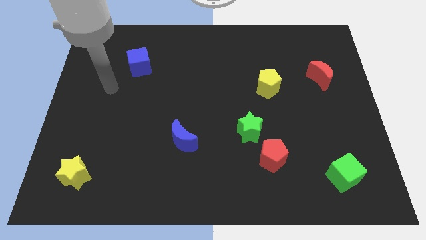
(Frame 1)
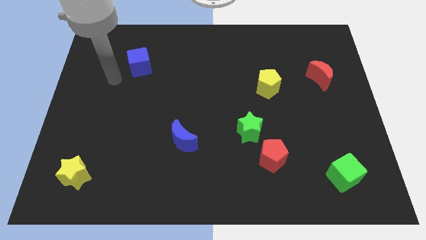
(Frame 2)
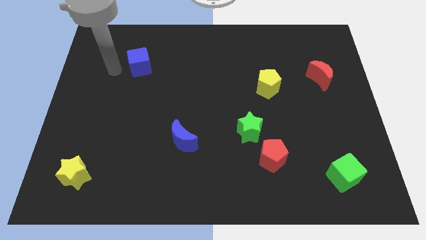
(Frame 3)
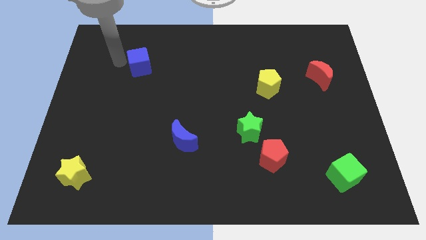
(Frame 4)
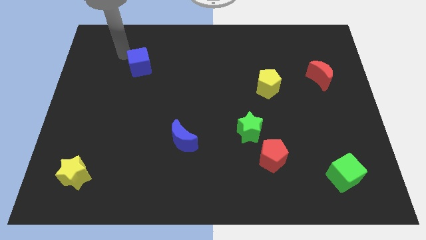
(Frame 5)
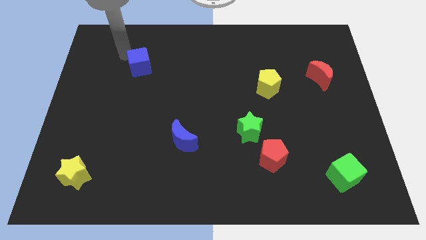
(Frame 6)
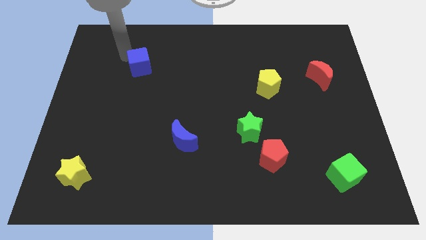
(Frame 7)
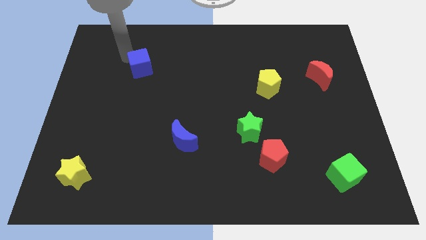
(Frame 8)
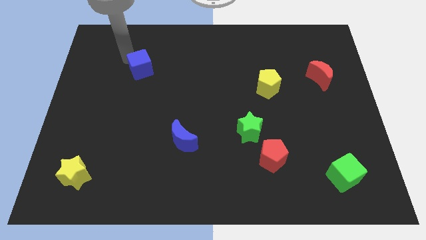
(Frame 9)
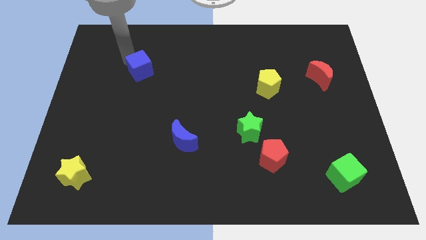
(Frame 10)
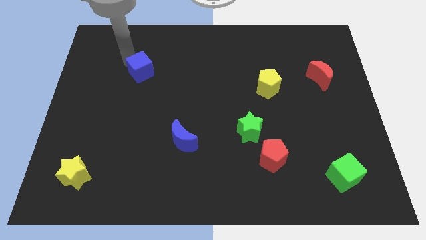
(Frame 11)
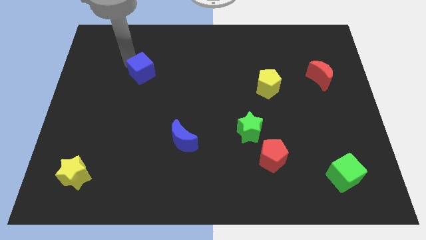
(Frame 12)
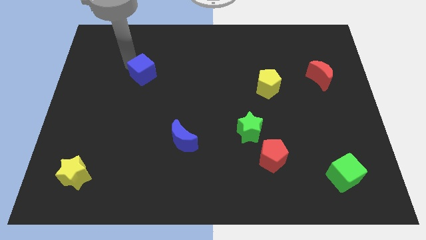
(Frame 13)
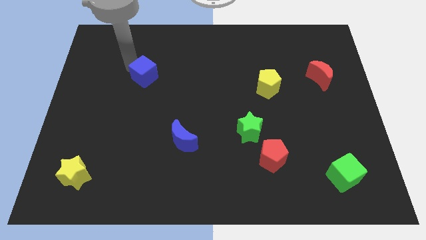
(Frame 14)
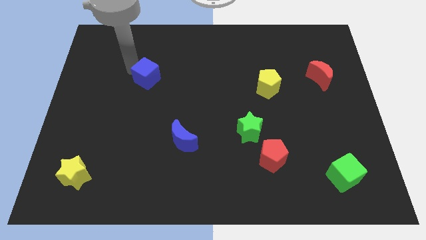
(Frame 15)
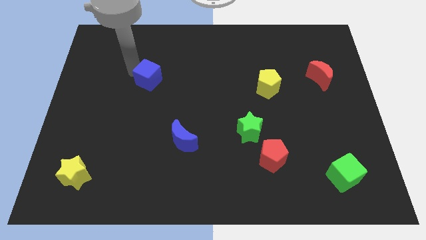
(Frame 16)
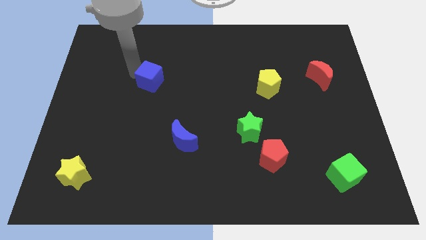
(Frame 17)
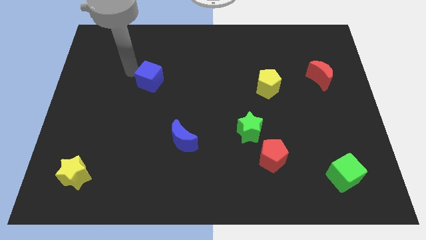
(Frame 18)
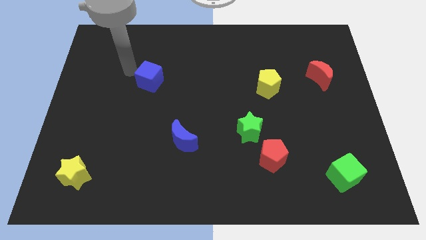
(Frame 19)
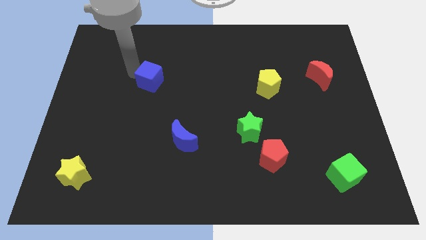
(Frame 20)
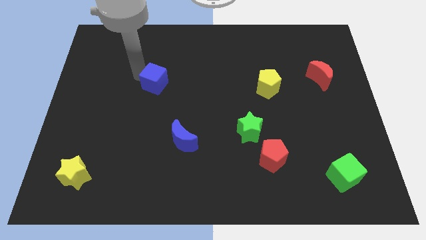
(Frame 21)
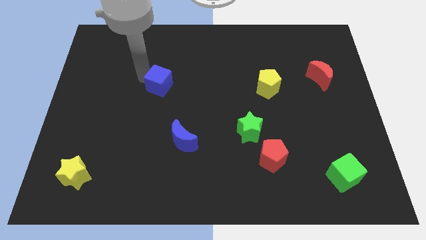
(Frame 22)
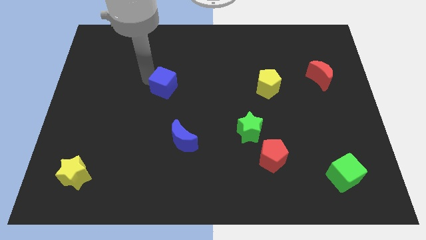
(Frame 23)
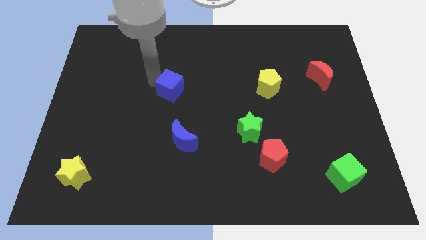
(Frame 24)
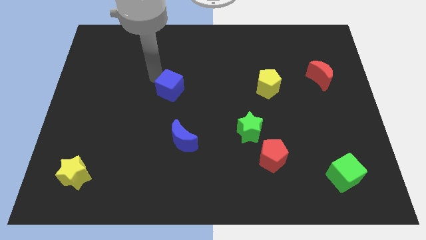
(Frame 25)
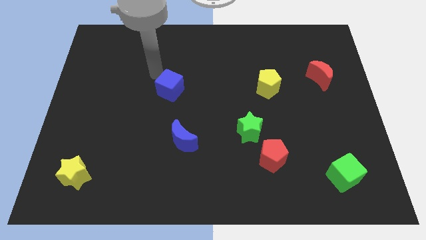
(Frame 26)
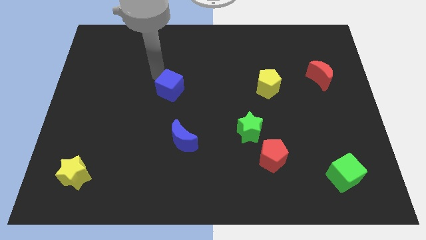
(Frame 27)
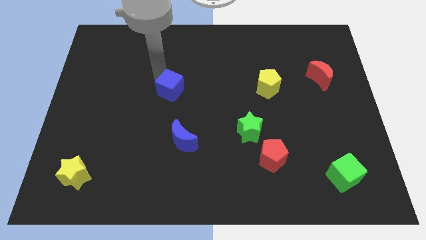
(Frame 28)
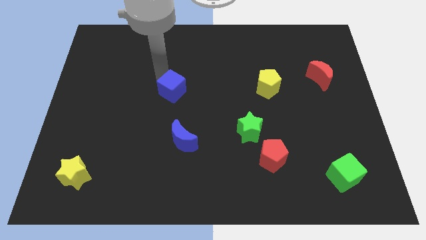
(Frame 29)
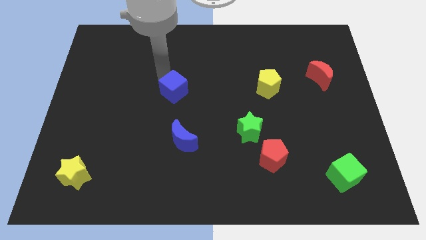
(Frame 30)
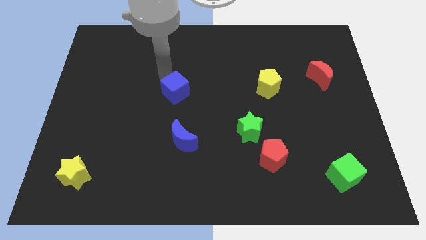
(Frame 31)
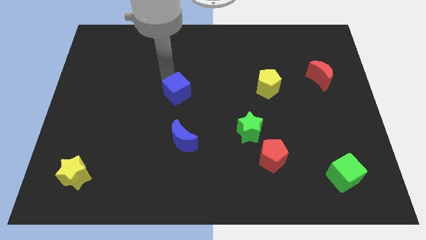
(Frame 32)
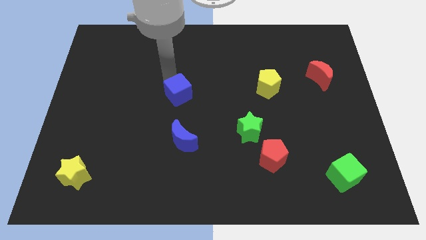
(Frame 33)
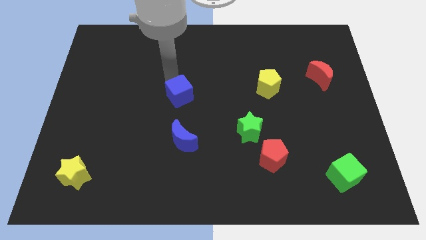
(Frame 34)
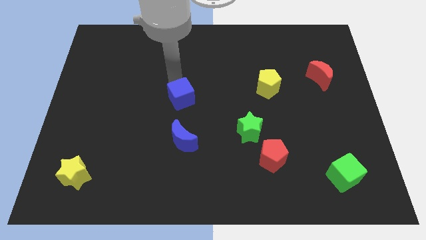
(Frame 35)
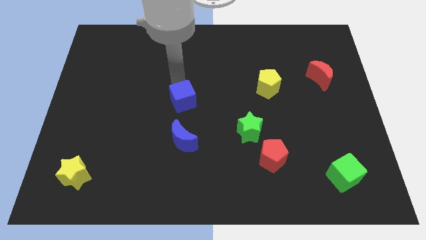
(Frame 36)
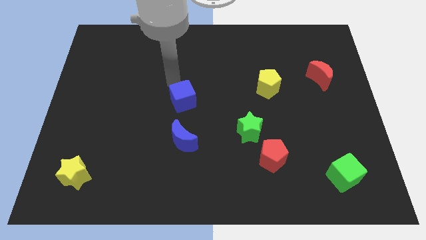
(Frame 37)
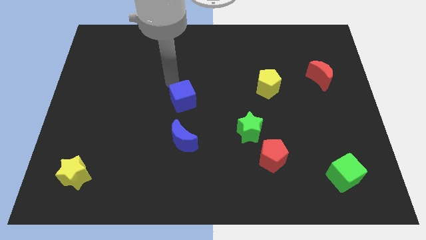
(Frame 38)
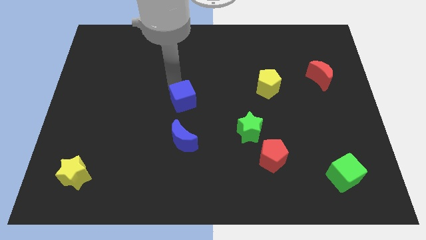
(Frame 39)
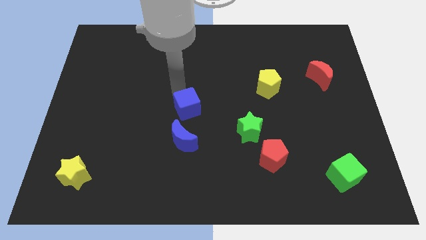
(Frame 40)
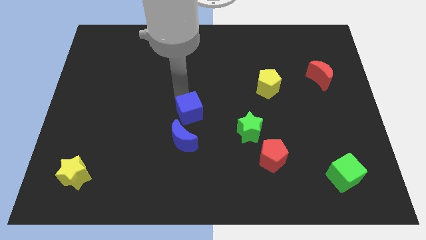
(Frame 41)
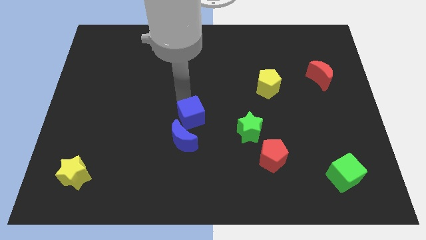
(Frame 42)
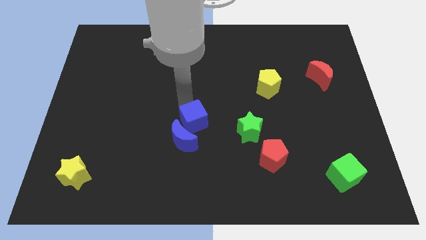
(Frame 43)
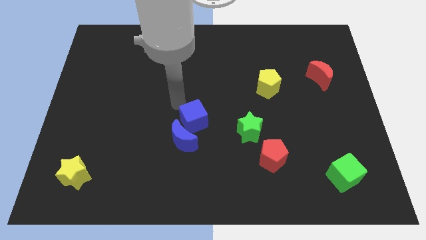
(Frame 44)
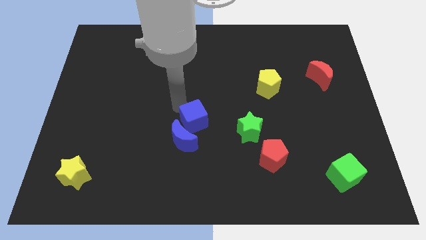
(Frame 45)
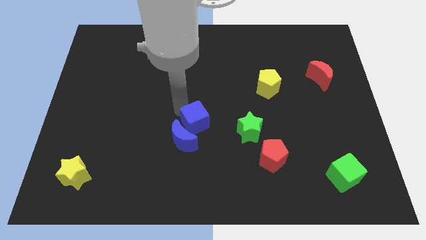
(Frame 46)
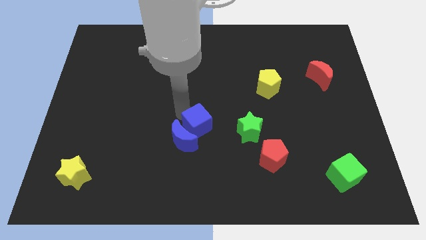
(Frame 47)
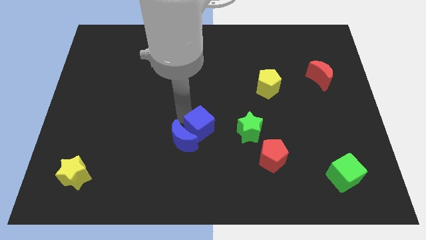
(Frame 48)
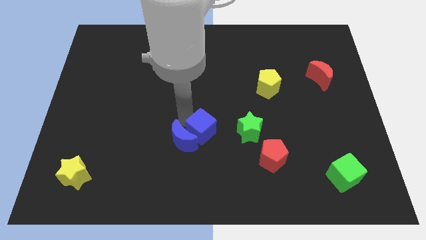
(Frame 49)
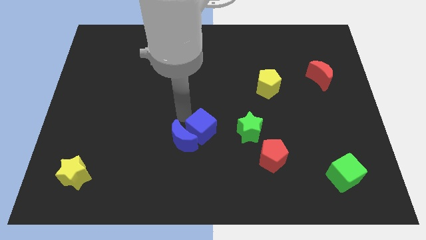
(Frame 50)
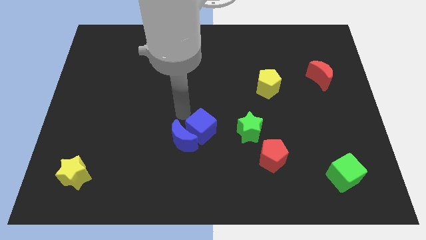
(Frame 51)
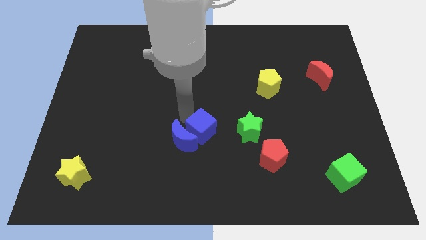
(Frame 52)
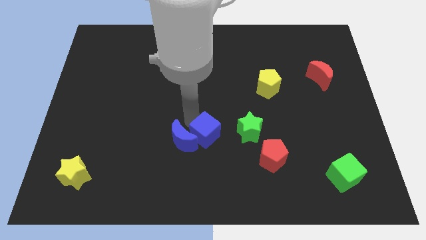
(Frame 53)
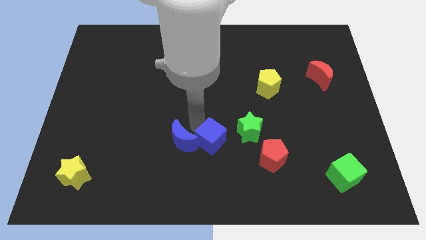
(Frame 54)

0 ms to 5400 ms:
put the blue cube to the bottom left of the green star

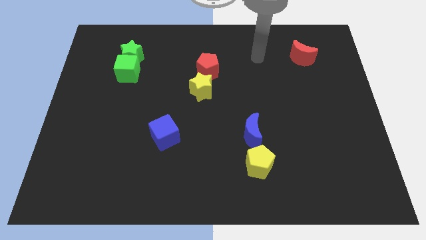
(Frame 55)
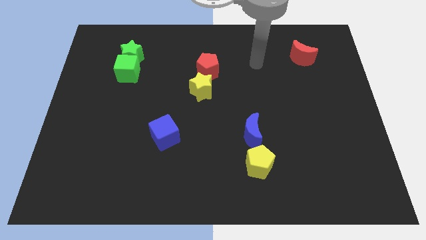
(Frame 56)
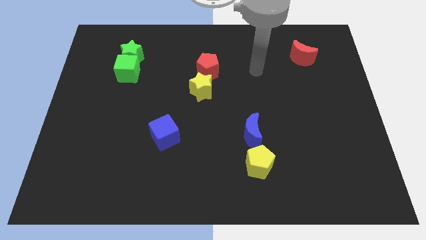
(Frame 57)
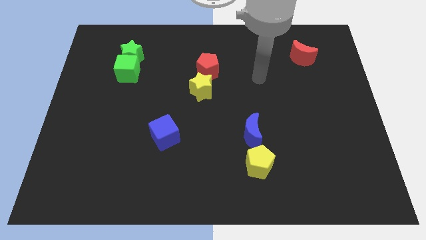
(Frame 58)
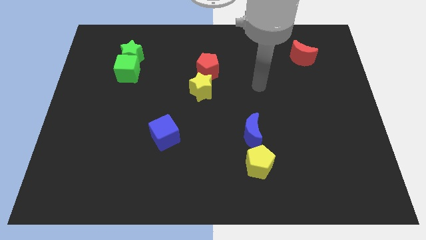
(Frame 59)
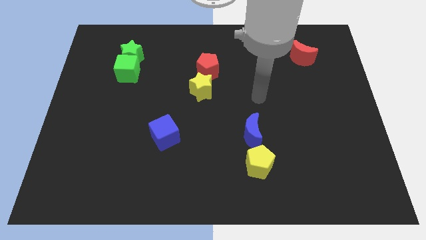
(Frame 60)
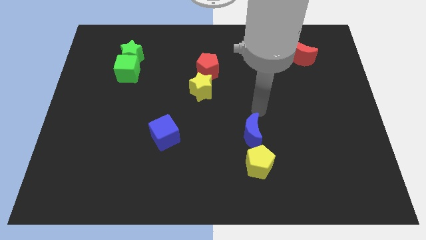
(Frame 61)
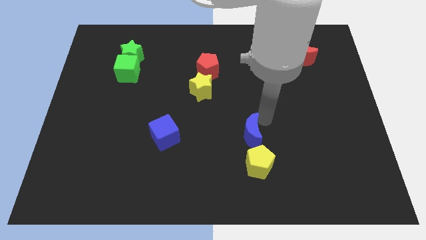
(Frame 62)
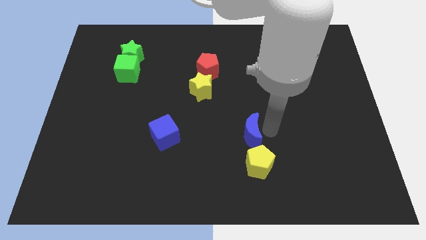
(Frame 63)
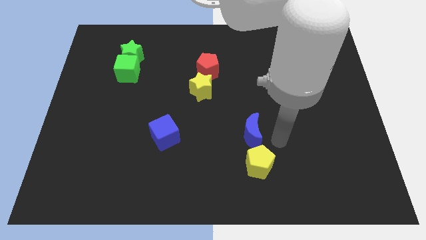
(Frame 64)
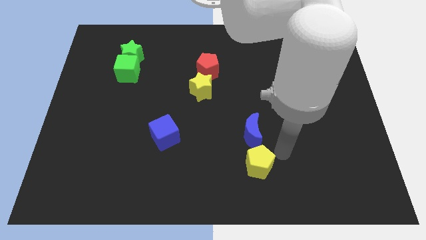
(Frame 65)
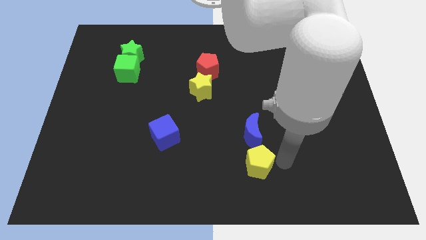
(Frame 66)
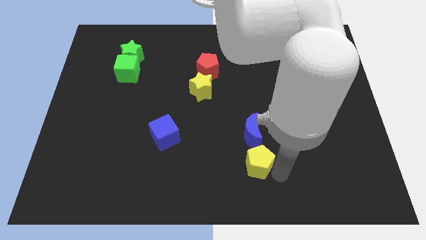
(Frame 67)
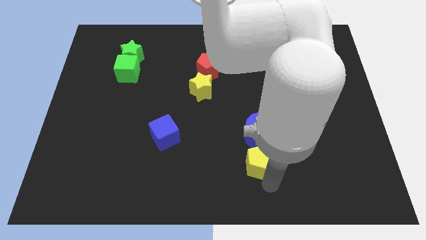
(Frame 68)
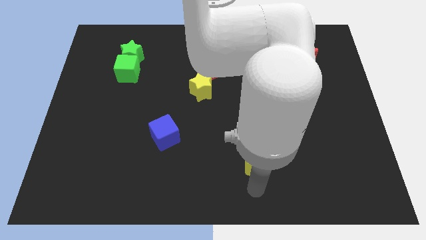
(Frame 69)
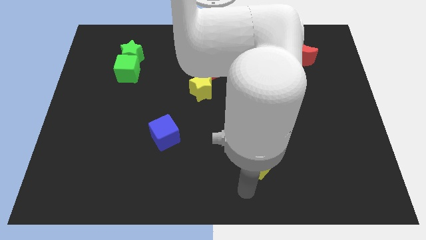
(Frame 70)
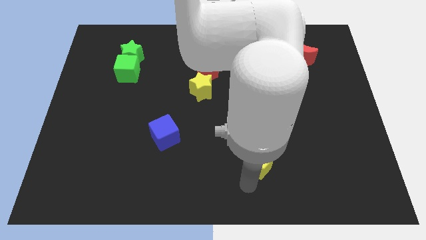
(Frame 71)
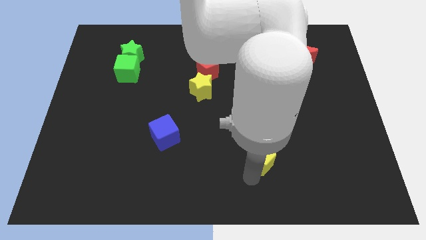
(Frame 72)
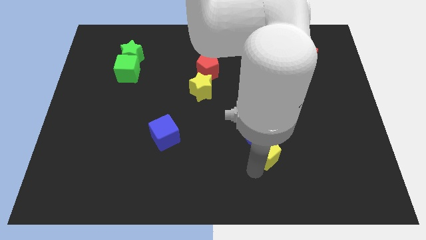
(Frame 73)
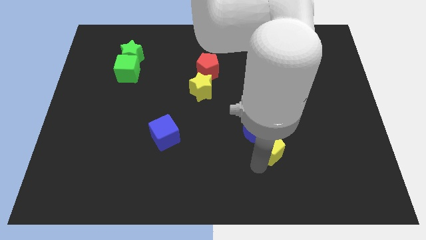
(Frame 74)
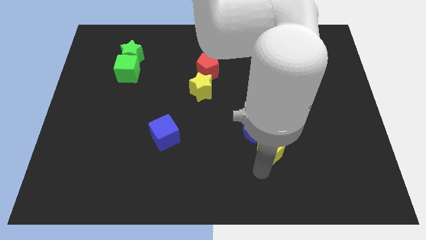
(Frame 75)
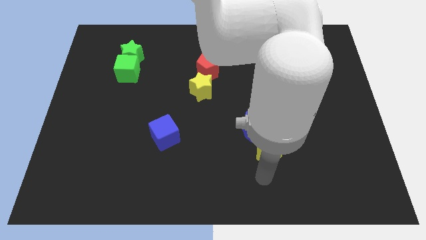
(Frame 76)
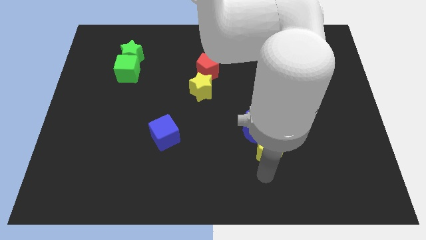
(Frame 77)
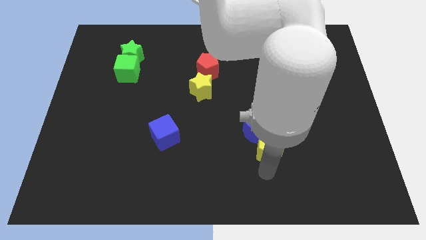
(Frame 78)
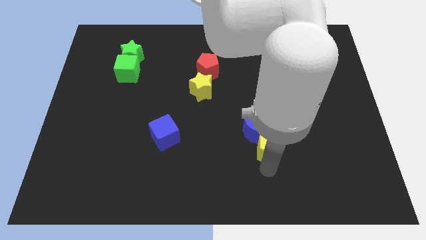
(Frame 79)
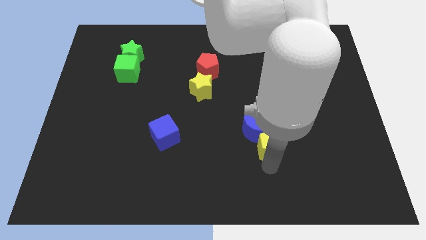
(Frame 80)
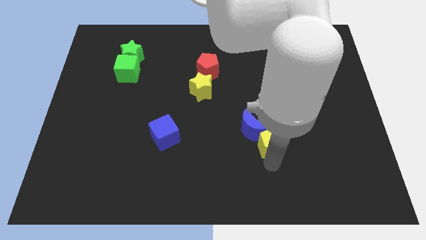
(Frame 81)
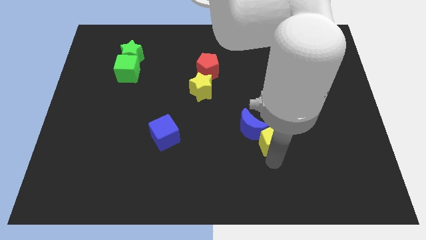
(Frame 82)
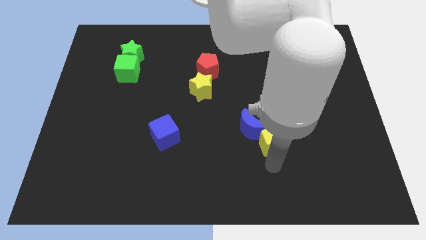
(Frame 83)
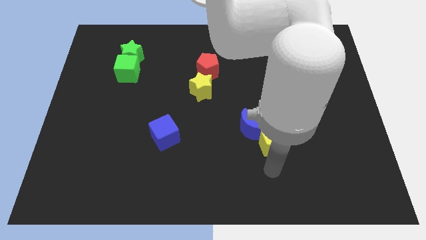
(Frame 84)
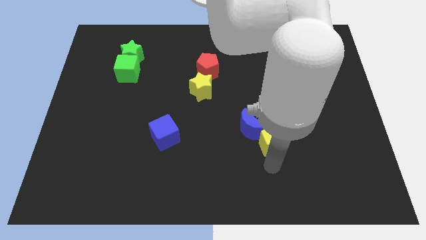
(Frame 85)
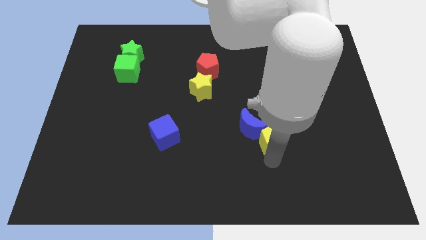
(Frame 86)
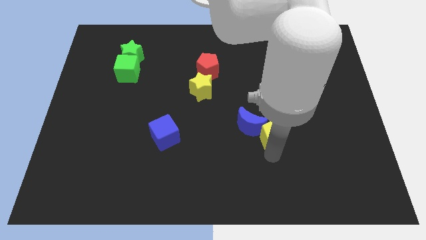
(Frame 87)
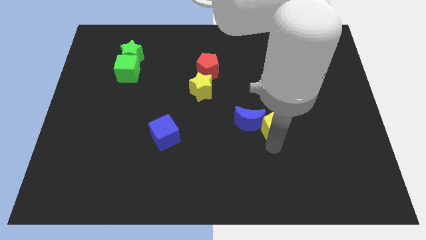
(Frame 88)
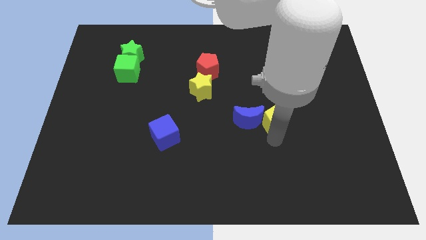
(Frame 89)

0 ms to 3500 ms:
put the yellow pentagon to the top right of the blue moon
